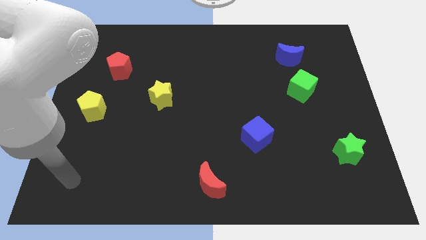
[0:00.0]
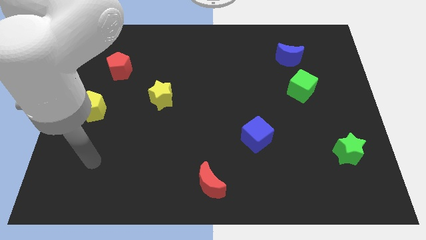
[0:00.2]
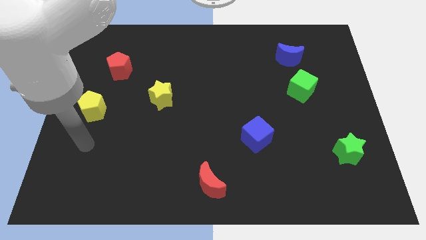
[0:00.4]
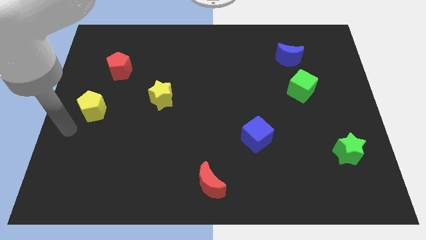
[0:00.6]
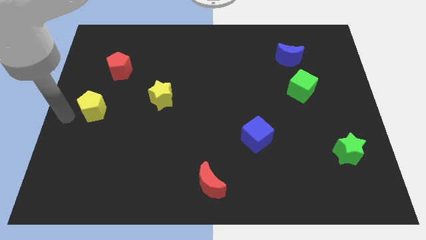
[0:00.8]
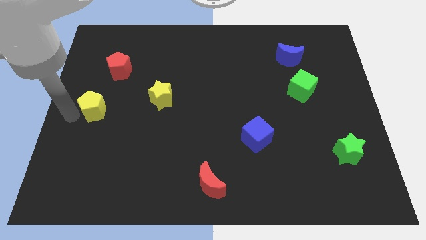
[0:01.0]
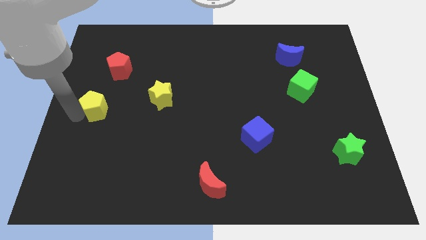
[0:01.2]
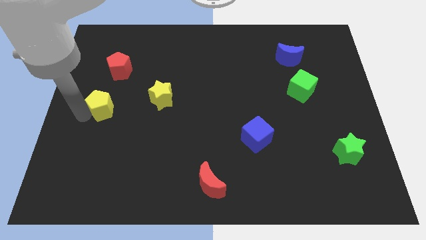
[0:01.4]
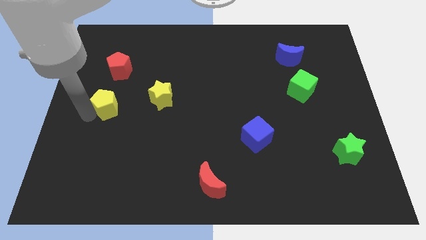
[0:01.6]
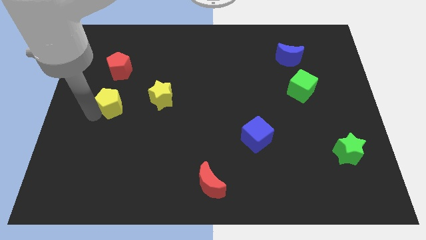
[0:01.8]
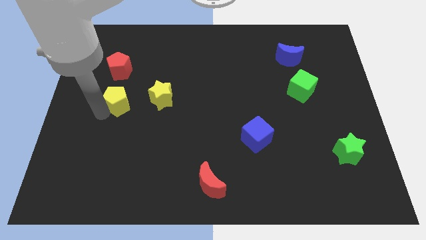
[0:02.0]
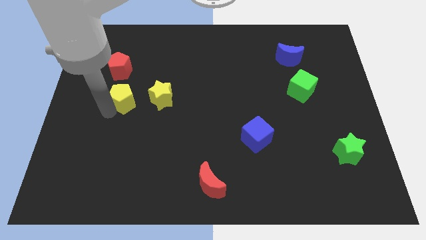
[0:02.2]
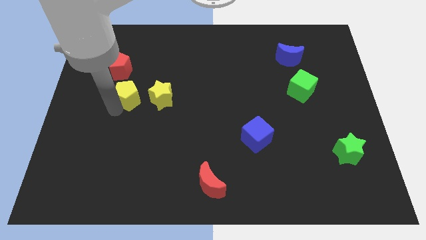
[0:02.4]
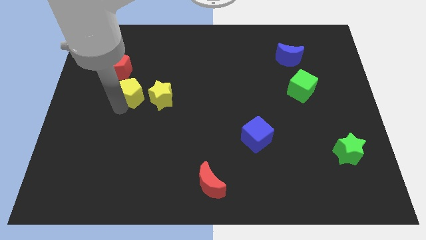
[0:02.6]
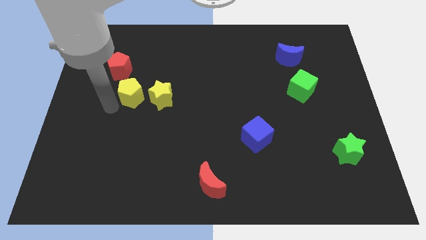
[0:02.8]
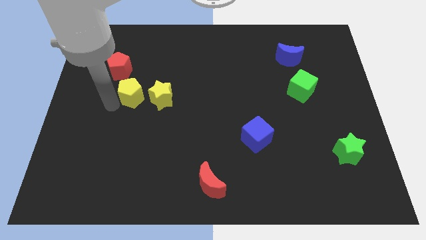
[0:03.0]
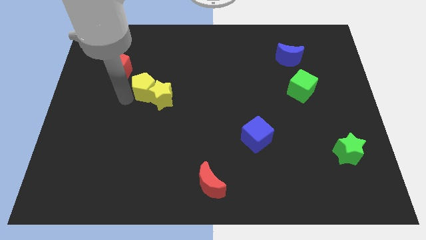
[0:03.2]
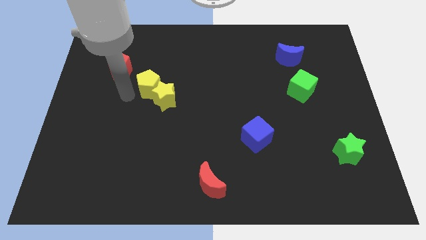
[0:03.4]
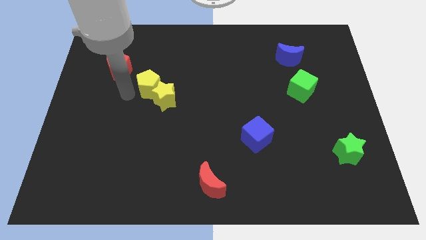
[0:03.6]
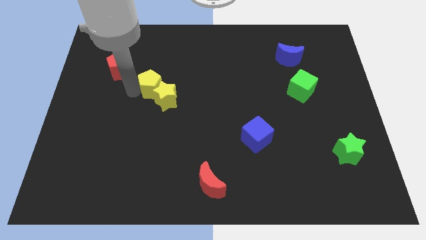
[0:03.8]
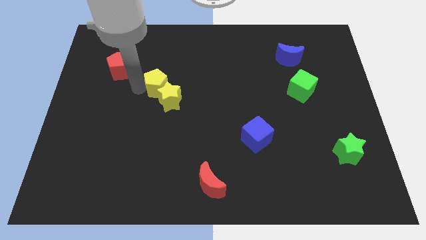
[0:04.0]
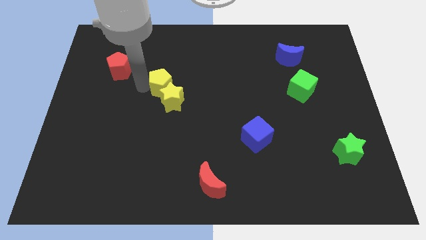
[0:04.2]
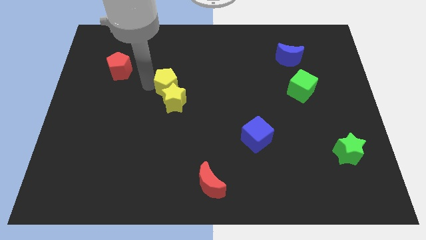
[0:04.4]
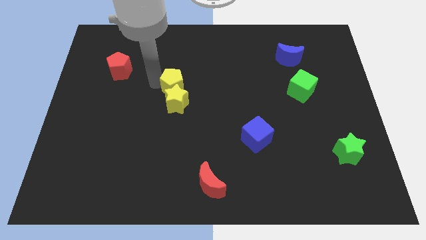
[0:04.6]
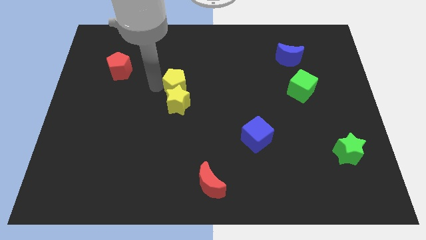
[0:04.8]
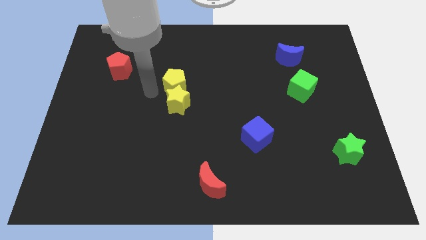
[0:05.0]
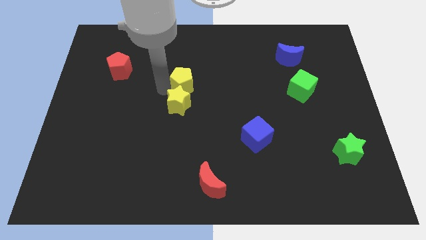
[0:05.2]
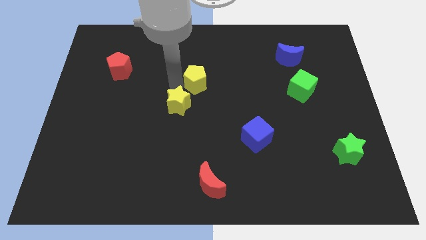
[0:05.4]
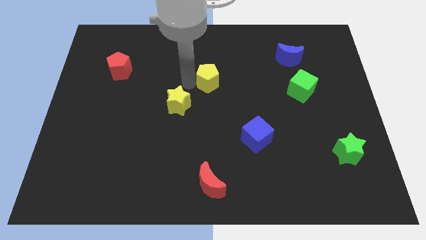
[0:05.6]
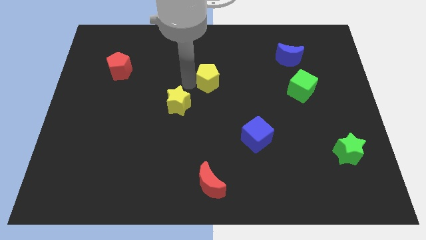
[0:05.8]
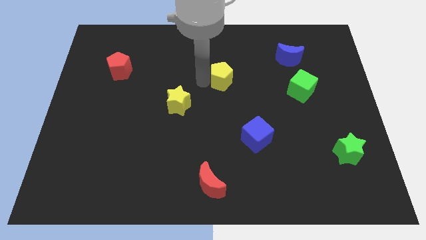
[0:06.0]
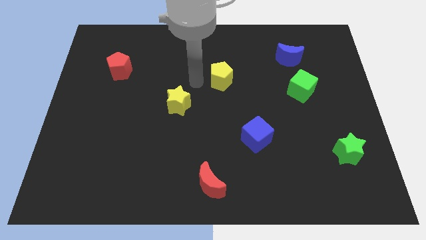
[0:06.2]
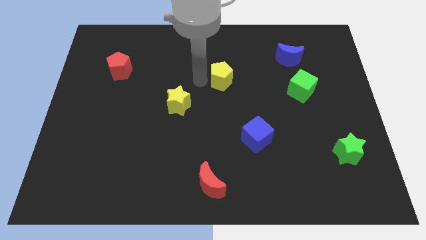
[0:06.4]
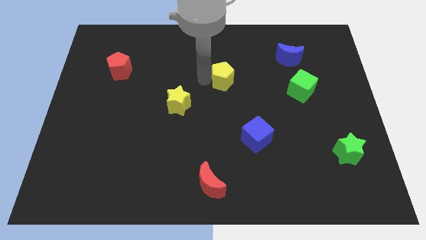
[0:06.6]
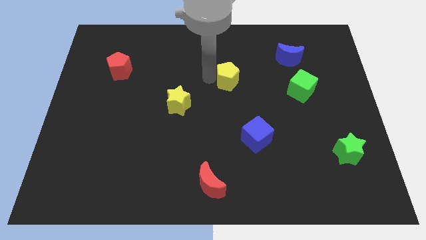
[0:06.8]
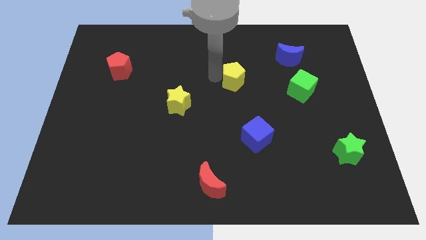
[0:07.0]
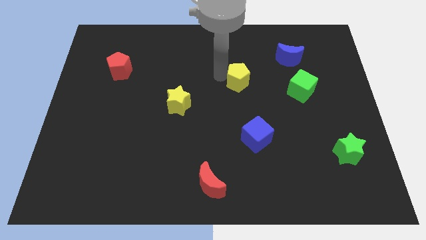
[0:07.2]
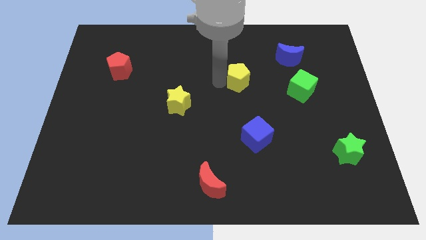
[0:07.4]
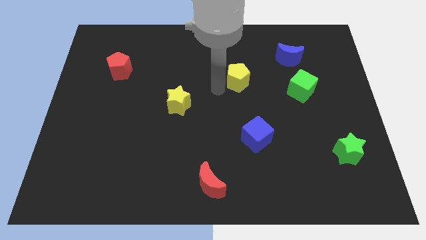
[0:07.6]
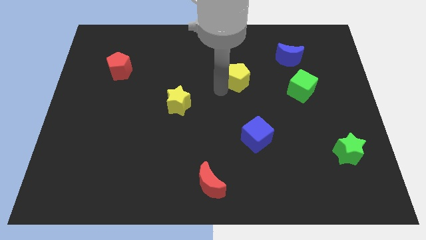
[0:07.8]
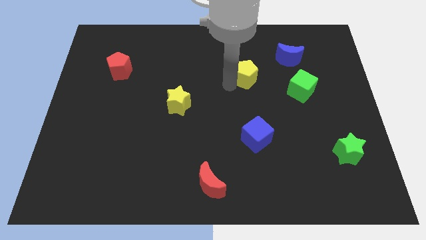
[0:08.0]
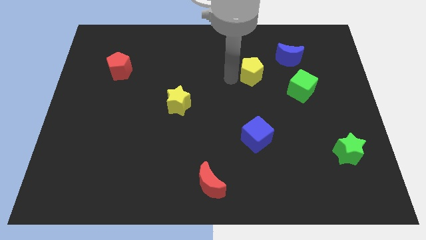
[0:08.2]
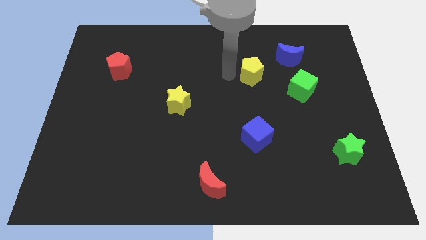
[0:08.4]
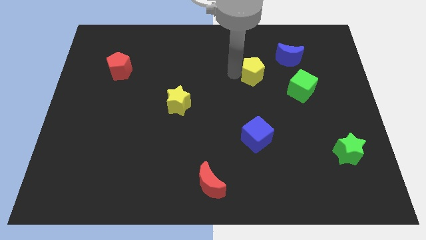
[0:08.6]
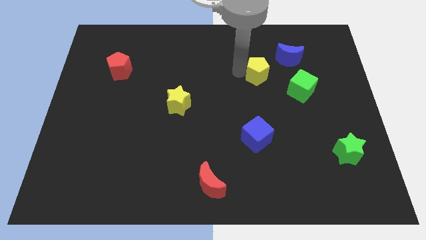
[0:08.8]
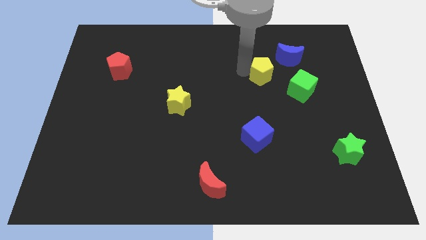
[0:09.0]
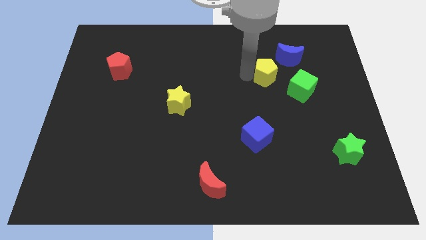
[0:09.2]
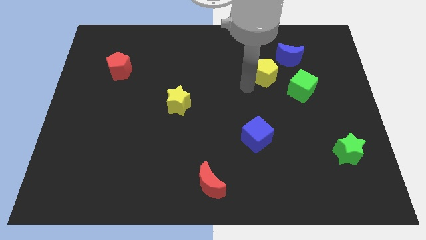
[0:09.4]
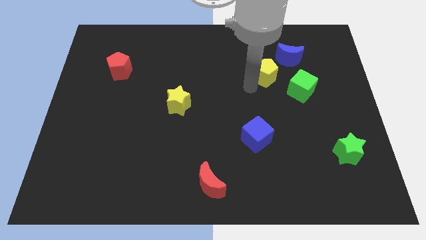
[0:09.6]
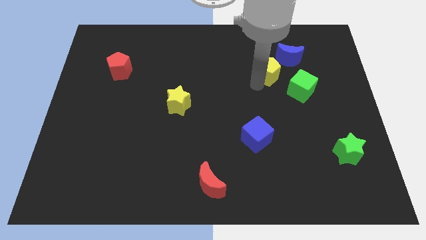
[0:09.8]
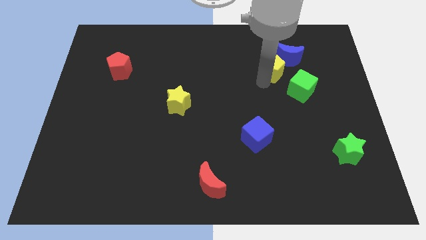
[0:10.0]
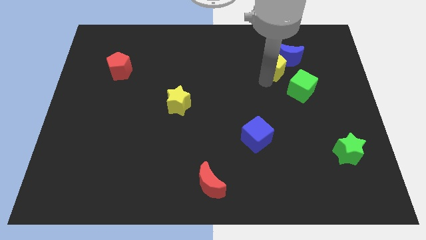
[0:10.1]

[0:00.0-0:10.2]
push the yellow pentagon to the blue moon

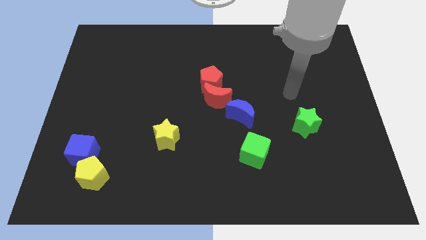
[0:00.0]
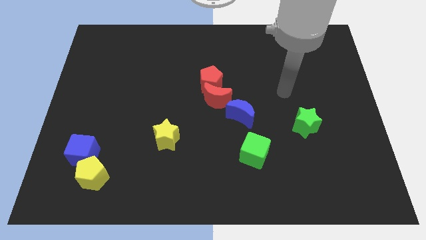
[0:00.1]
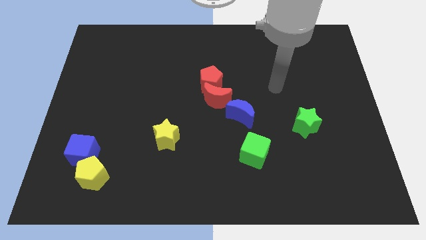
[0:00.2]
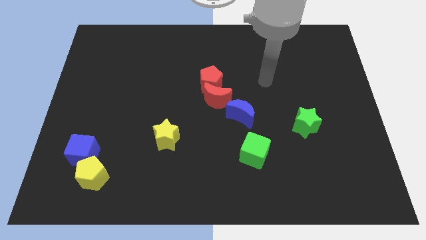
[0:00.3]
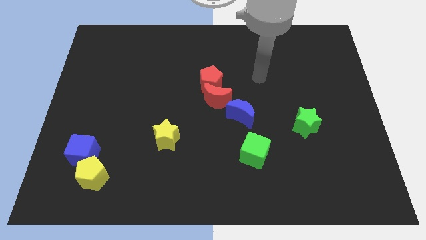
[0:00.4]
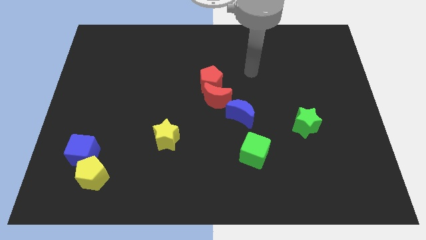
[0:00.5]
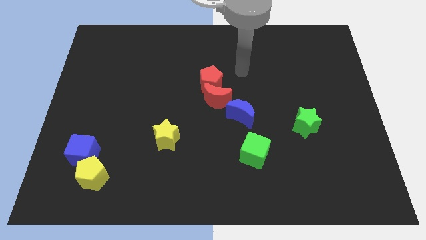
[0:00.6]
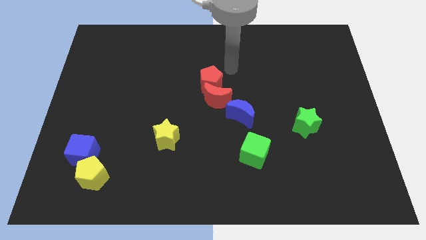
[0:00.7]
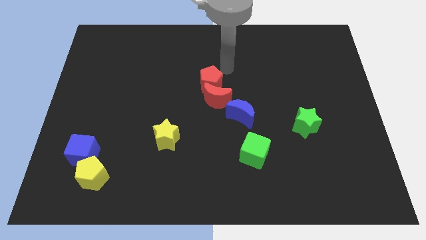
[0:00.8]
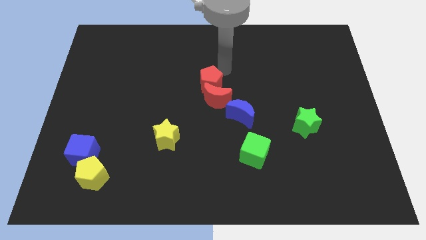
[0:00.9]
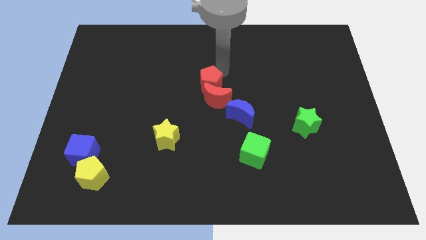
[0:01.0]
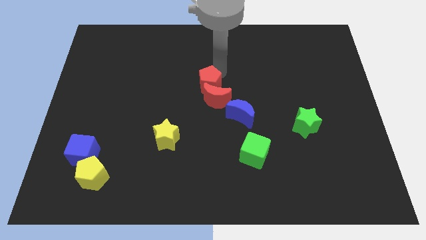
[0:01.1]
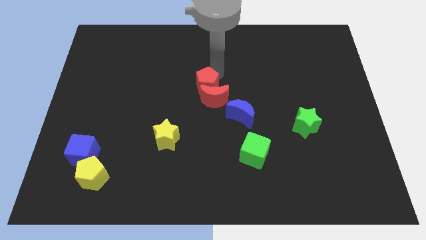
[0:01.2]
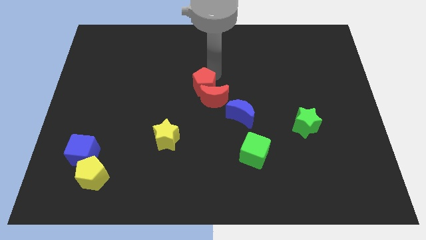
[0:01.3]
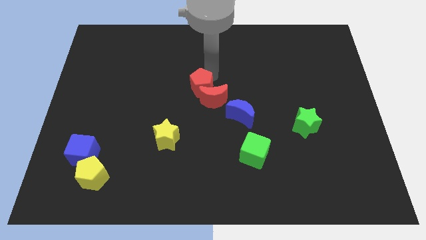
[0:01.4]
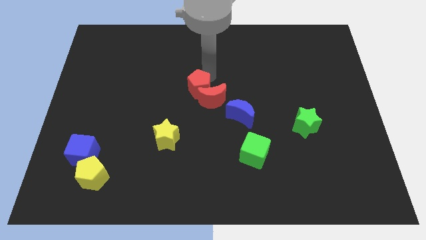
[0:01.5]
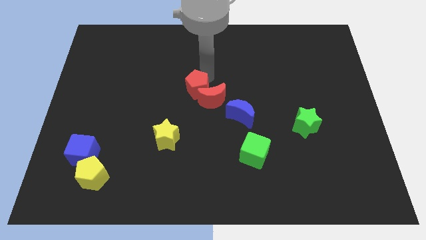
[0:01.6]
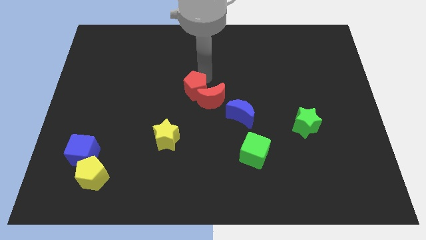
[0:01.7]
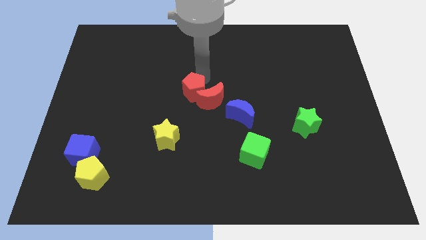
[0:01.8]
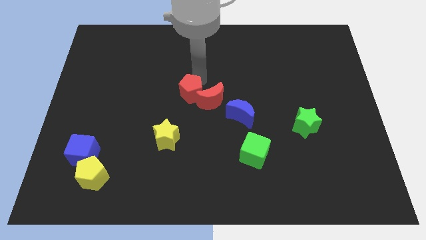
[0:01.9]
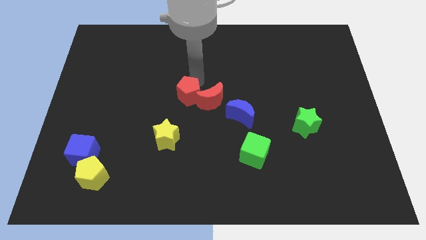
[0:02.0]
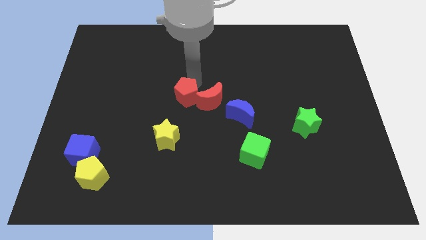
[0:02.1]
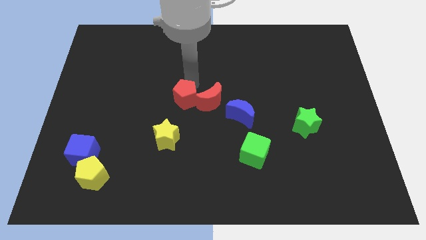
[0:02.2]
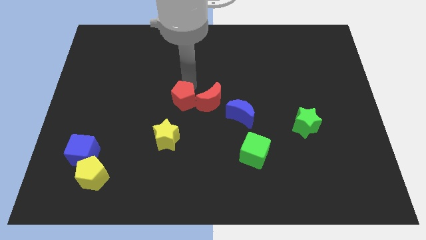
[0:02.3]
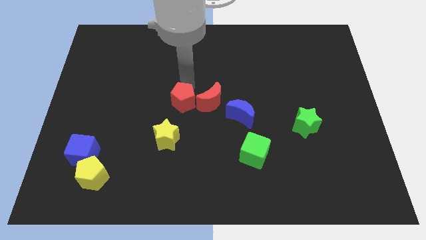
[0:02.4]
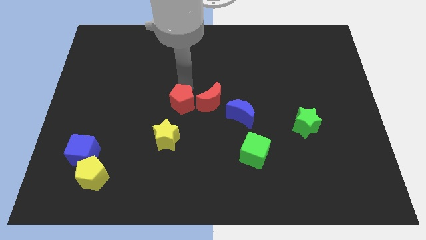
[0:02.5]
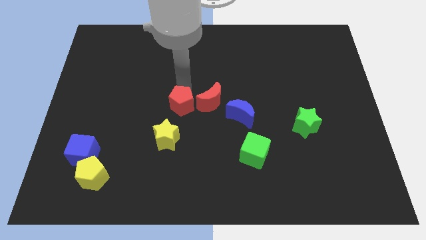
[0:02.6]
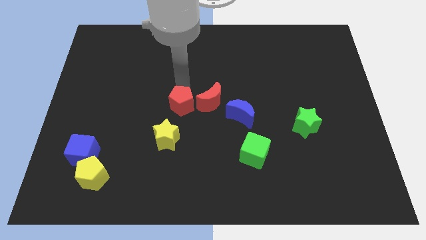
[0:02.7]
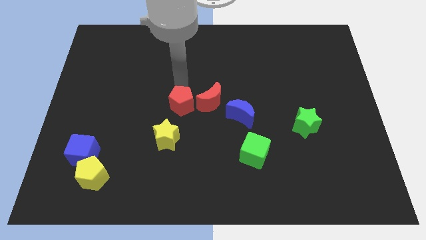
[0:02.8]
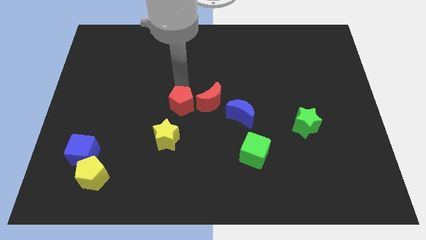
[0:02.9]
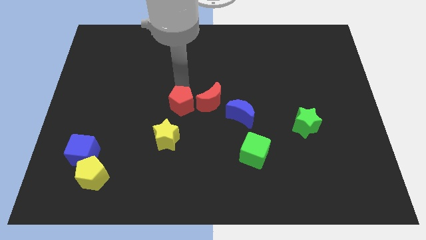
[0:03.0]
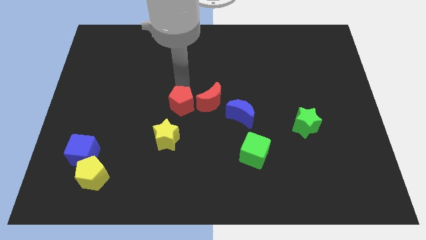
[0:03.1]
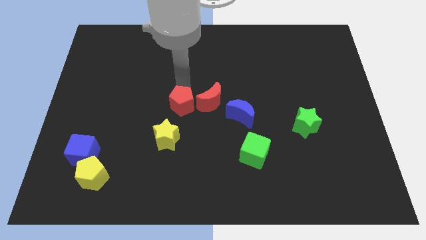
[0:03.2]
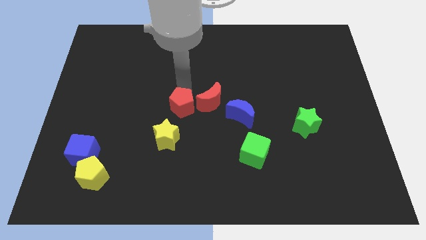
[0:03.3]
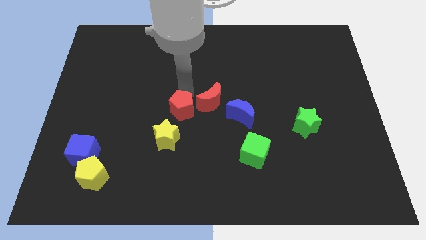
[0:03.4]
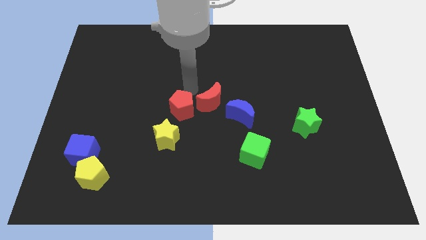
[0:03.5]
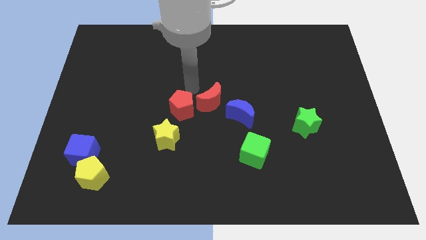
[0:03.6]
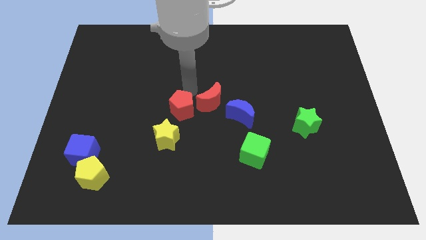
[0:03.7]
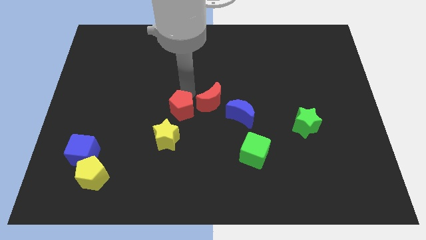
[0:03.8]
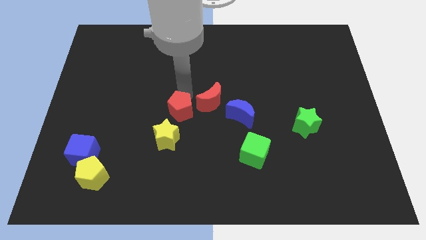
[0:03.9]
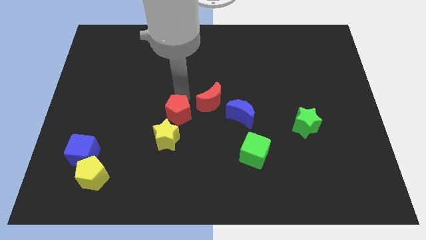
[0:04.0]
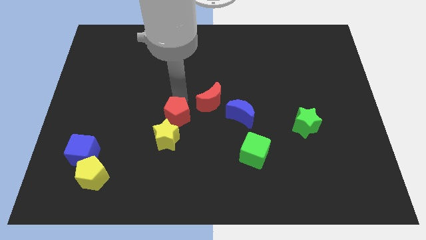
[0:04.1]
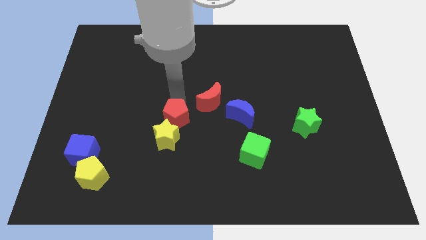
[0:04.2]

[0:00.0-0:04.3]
put the red pentagon next to the yellow star
